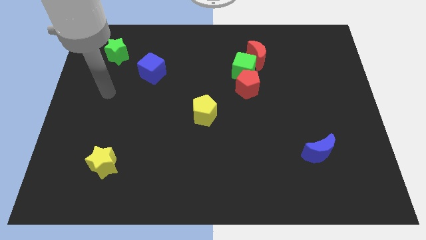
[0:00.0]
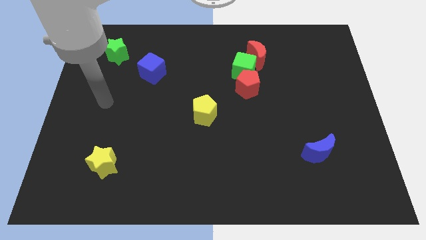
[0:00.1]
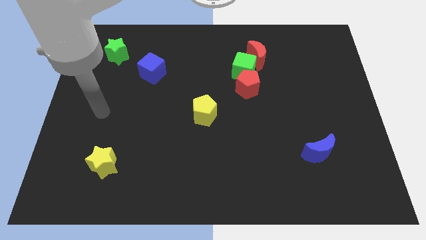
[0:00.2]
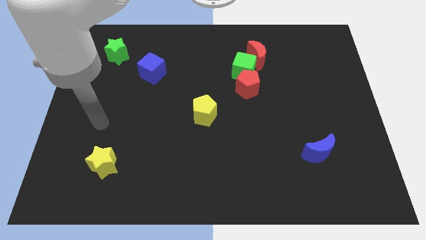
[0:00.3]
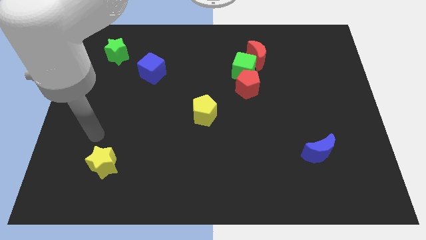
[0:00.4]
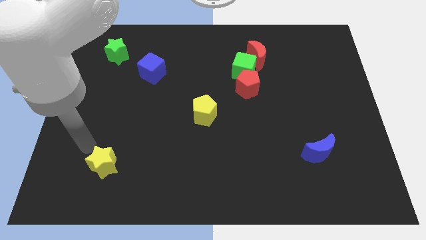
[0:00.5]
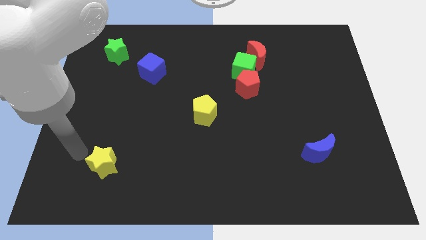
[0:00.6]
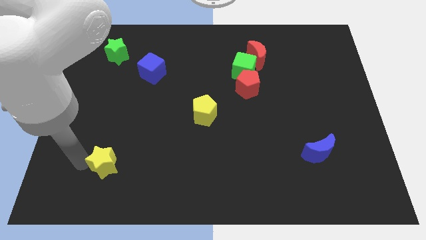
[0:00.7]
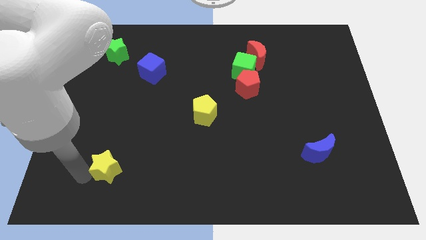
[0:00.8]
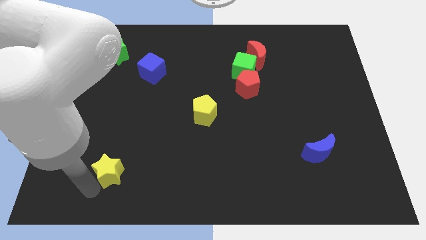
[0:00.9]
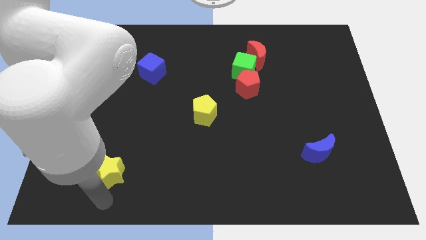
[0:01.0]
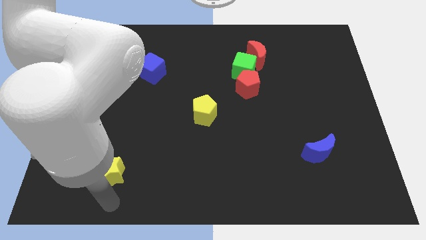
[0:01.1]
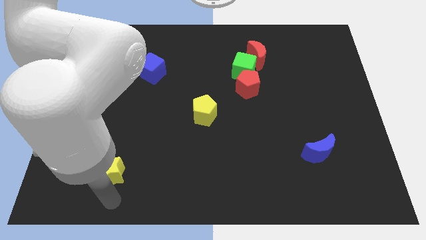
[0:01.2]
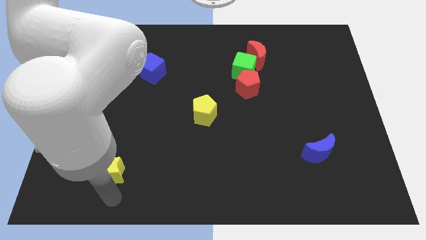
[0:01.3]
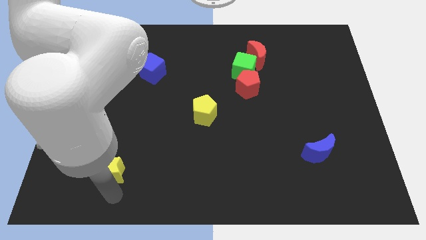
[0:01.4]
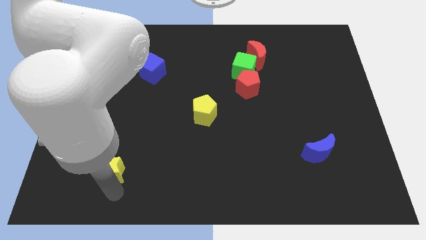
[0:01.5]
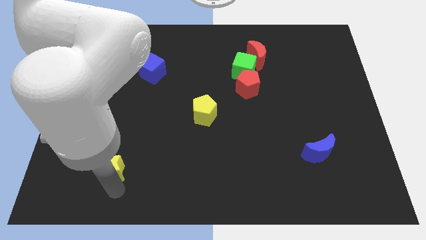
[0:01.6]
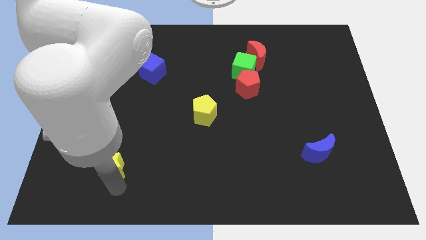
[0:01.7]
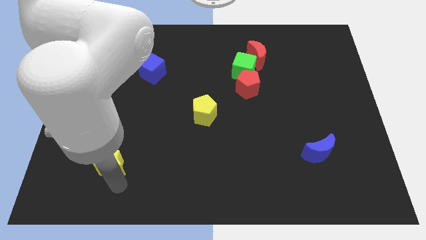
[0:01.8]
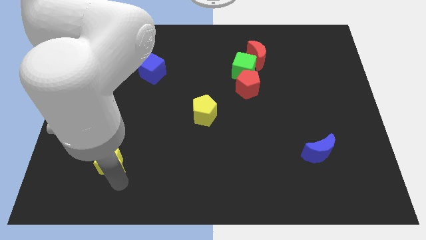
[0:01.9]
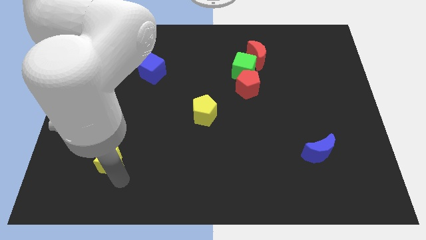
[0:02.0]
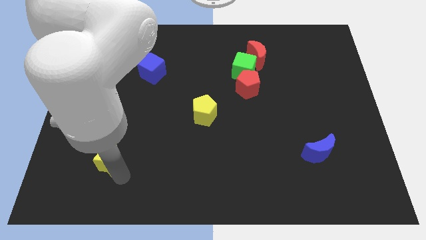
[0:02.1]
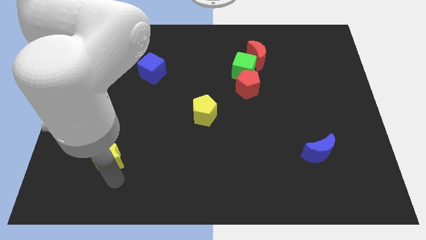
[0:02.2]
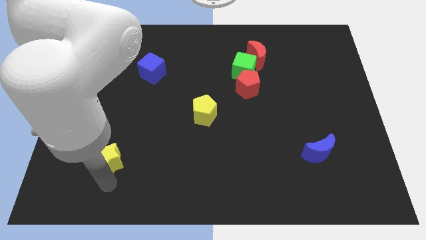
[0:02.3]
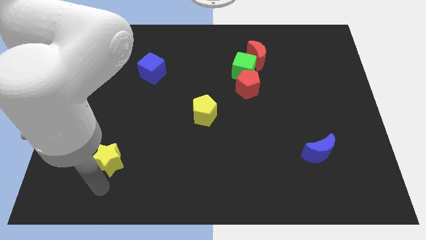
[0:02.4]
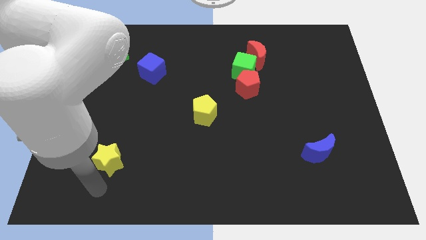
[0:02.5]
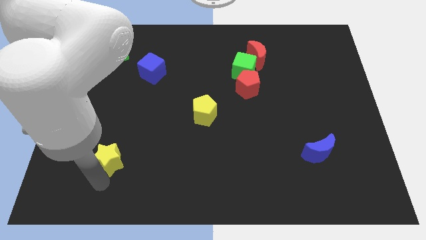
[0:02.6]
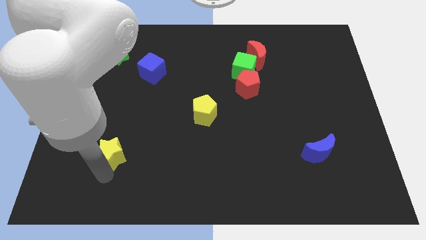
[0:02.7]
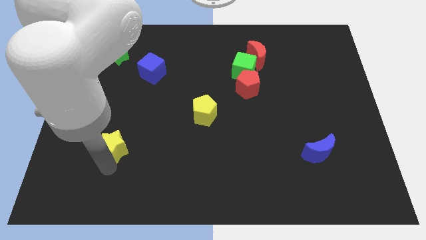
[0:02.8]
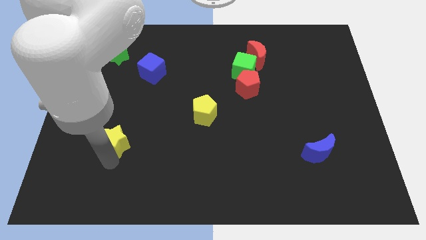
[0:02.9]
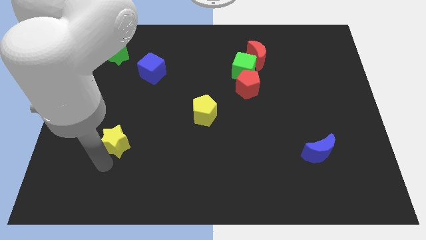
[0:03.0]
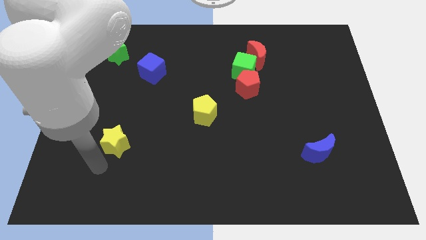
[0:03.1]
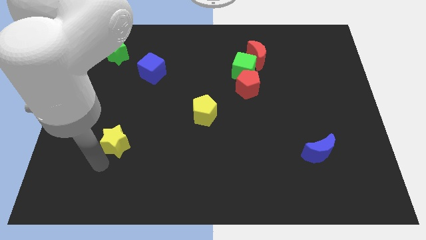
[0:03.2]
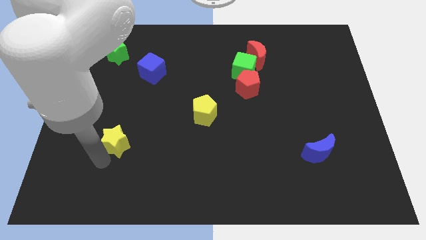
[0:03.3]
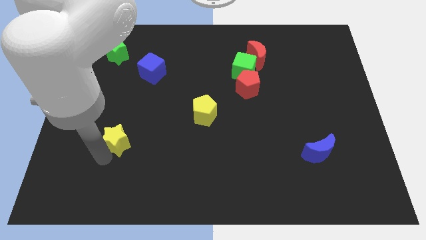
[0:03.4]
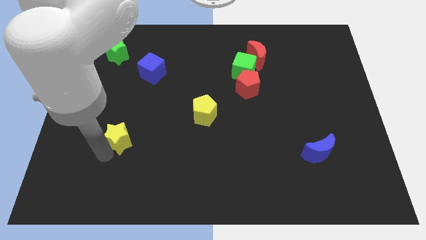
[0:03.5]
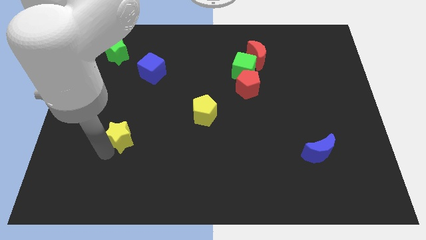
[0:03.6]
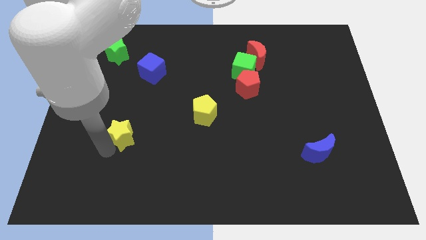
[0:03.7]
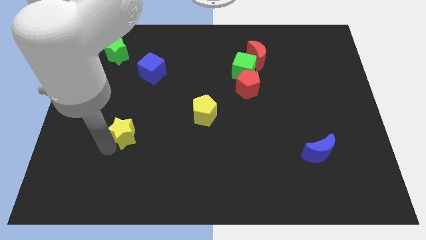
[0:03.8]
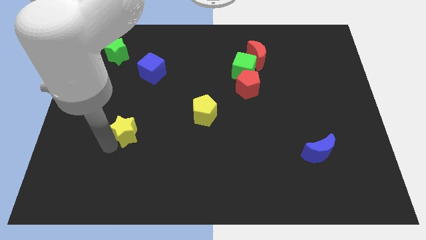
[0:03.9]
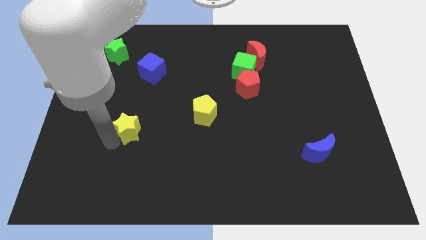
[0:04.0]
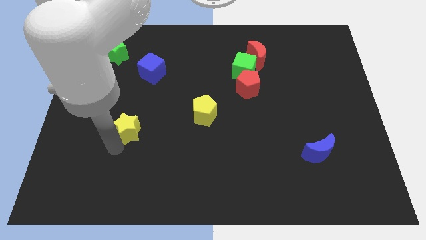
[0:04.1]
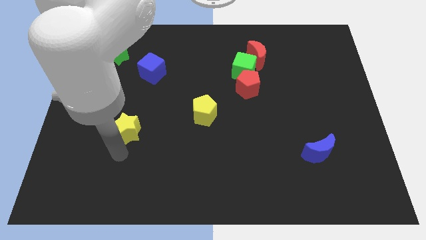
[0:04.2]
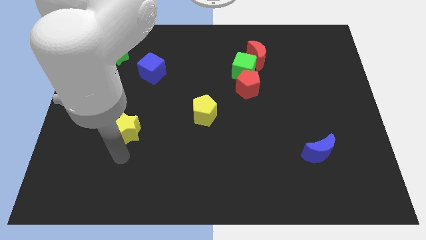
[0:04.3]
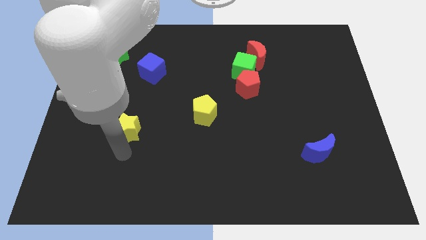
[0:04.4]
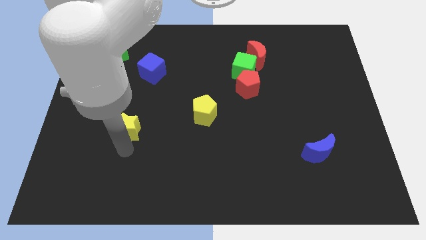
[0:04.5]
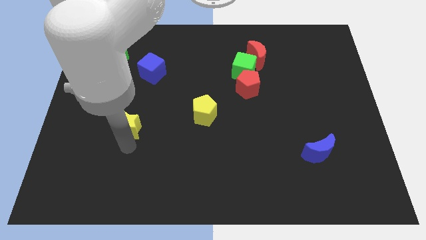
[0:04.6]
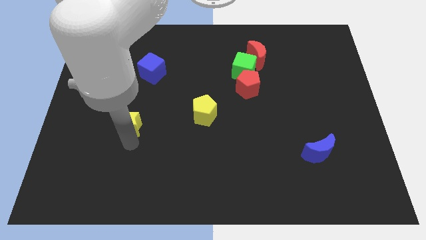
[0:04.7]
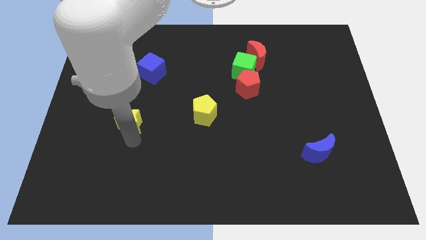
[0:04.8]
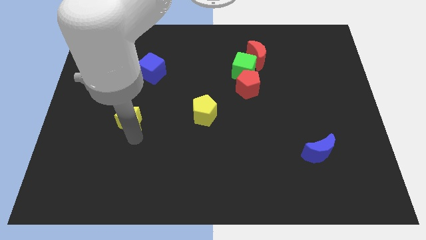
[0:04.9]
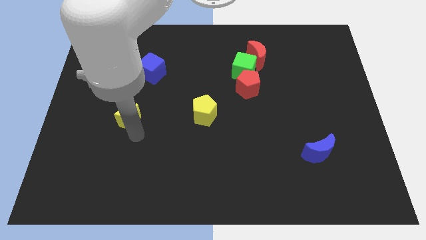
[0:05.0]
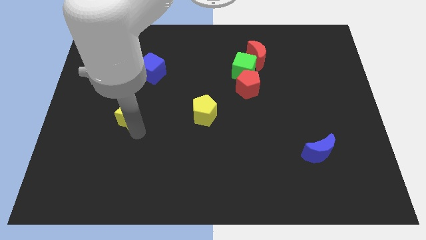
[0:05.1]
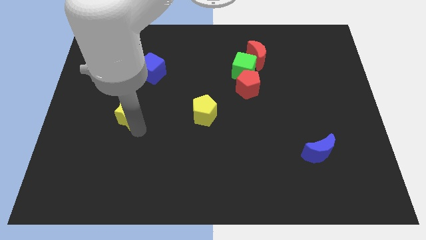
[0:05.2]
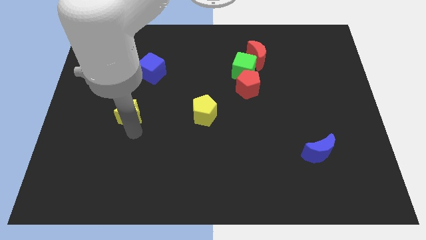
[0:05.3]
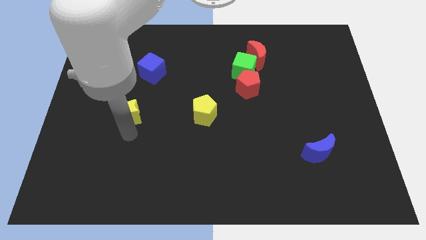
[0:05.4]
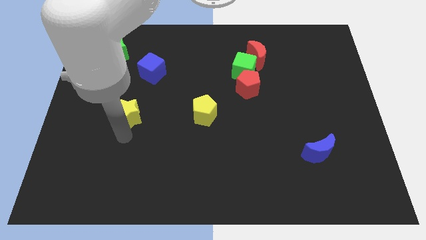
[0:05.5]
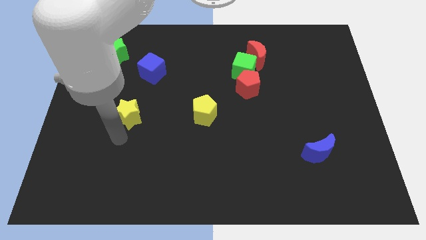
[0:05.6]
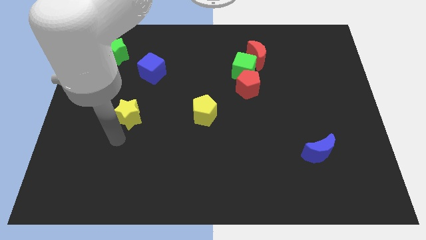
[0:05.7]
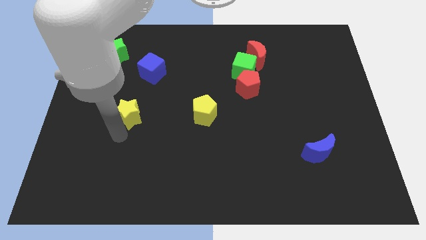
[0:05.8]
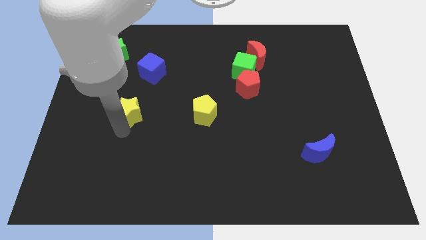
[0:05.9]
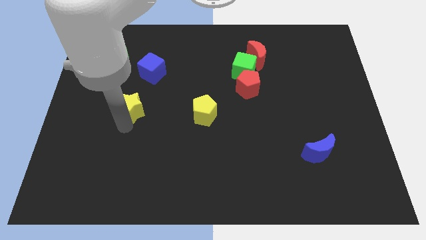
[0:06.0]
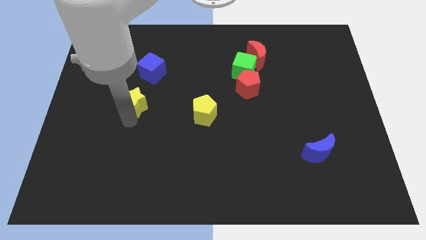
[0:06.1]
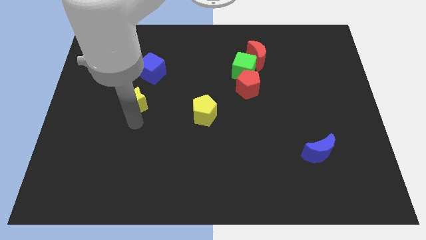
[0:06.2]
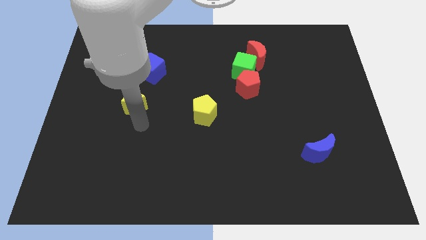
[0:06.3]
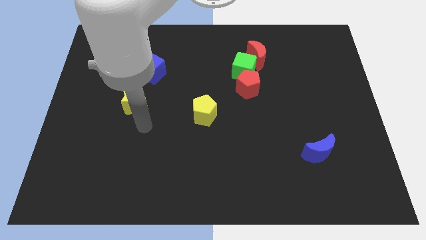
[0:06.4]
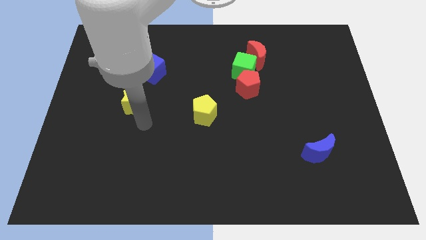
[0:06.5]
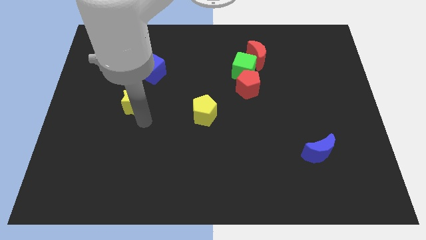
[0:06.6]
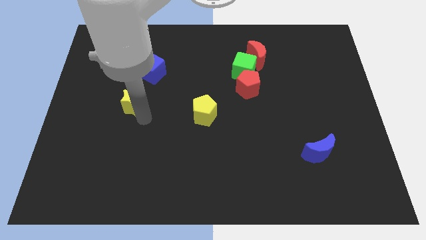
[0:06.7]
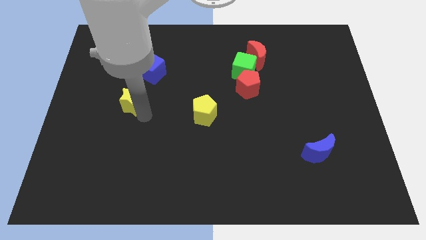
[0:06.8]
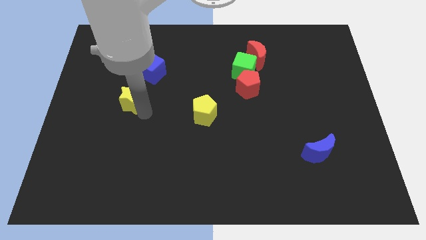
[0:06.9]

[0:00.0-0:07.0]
move the yellow star diagonally down and to the left of the blue cube
